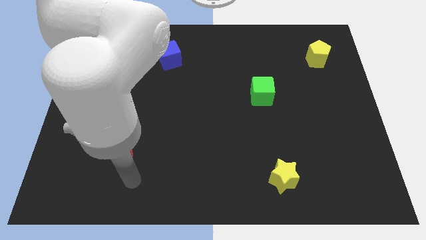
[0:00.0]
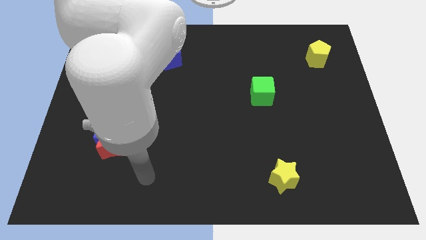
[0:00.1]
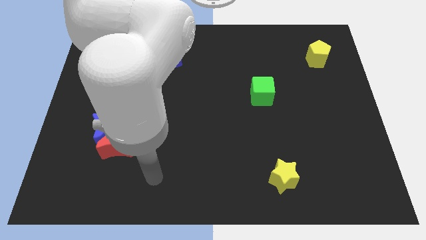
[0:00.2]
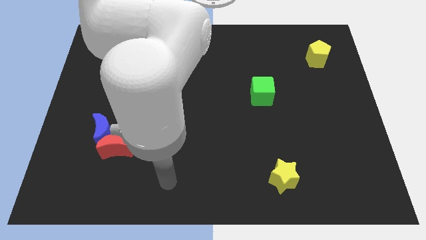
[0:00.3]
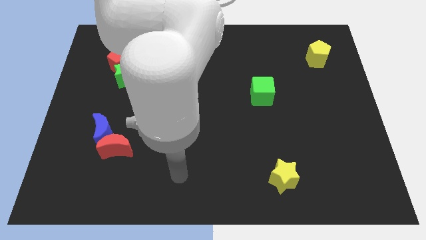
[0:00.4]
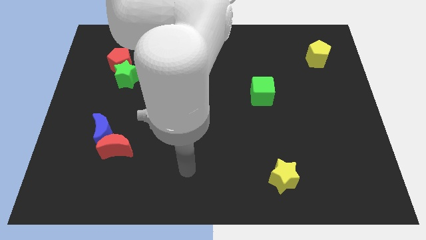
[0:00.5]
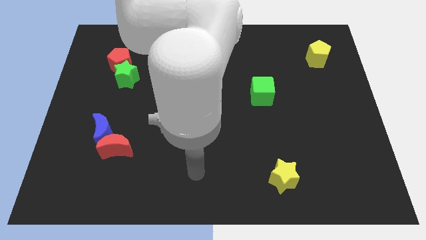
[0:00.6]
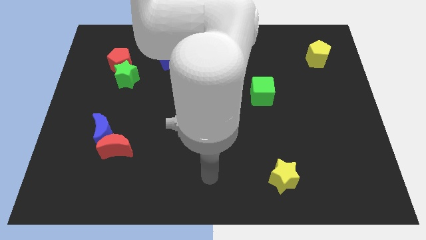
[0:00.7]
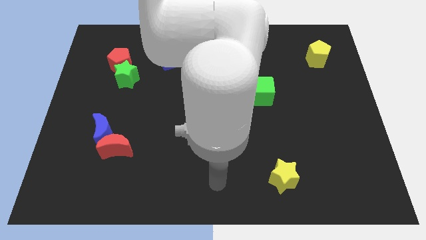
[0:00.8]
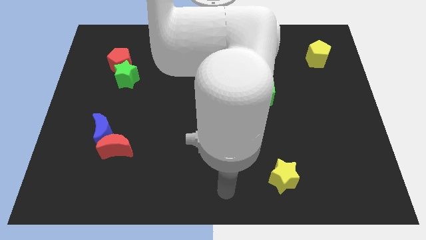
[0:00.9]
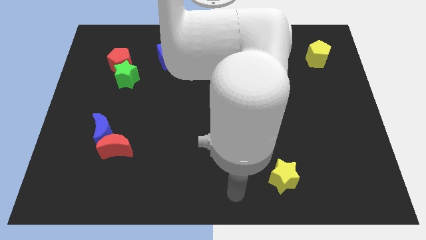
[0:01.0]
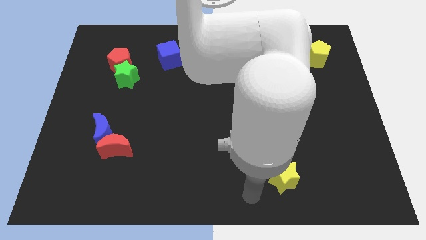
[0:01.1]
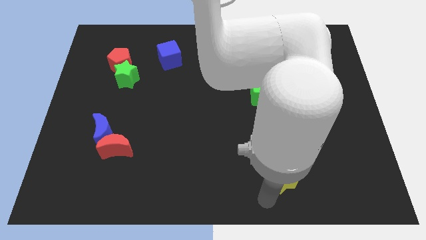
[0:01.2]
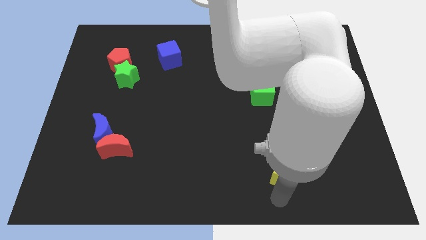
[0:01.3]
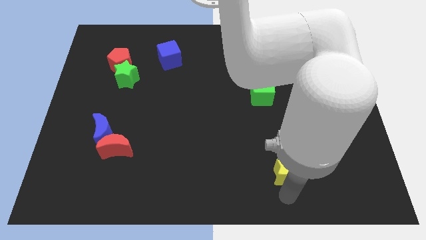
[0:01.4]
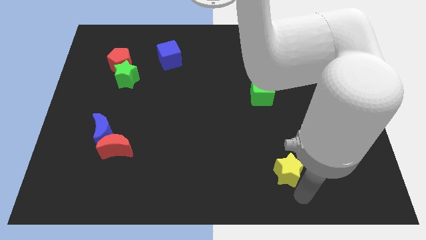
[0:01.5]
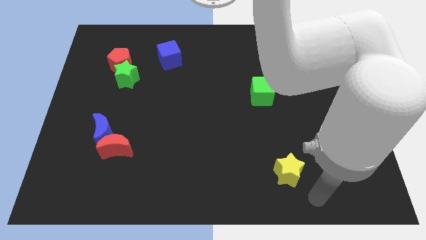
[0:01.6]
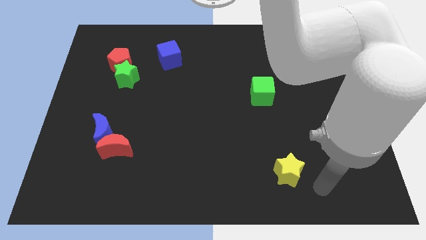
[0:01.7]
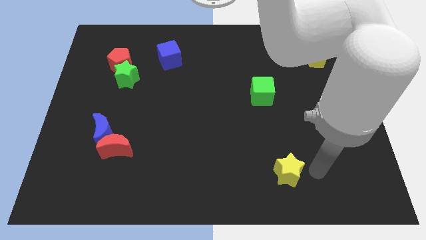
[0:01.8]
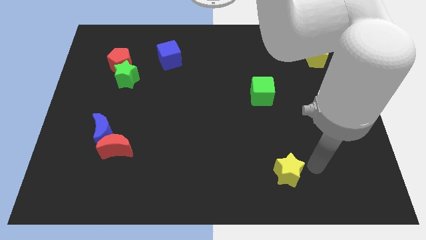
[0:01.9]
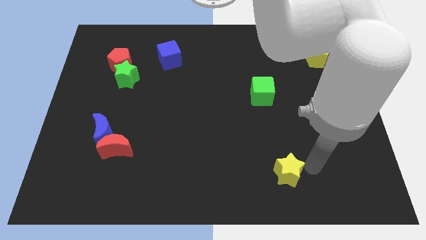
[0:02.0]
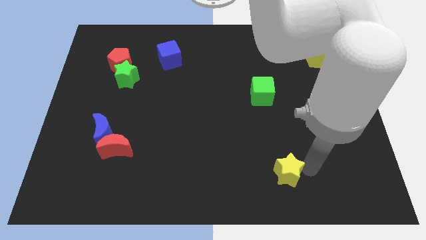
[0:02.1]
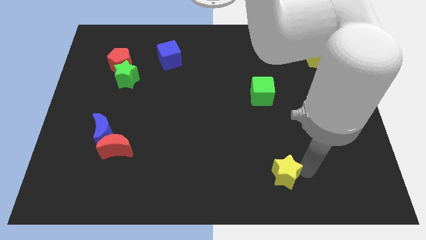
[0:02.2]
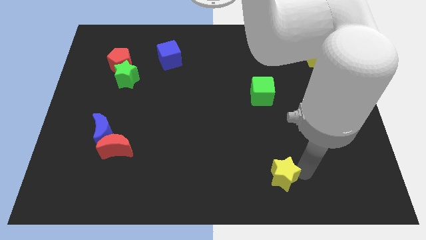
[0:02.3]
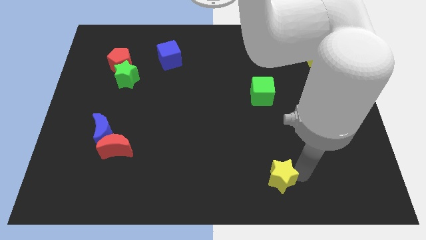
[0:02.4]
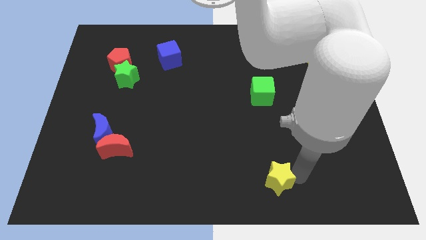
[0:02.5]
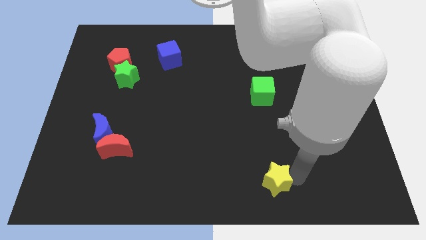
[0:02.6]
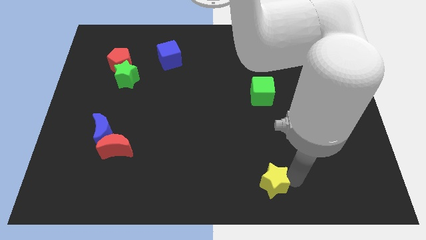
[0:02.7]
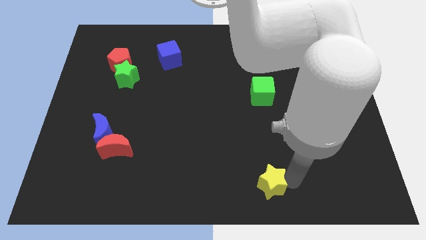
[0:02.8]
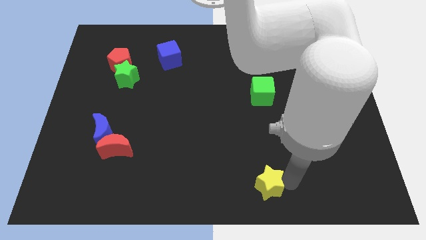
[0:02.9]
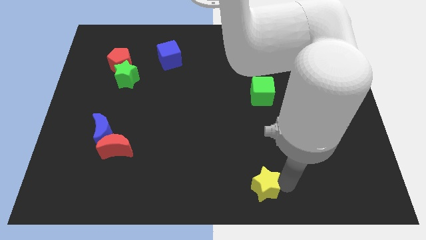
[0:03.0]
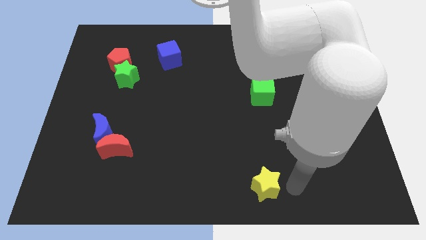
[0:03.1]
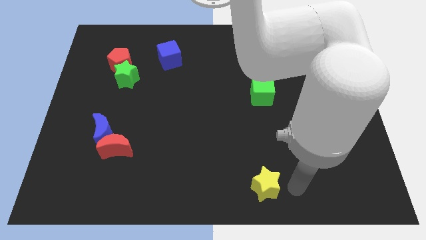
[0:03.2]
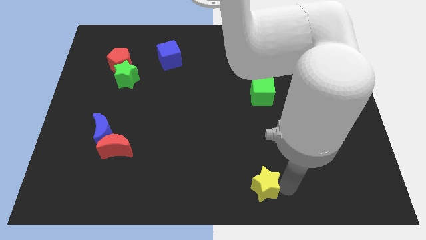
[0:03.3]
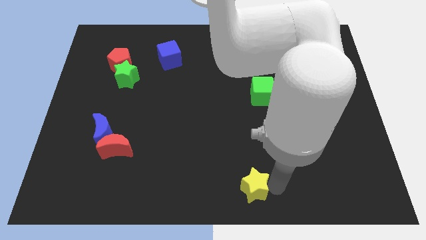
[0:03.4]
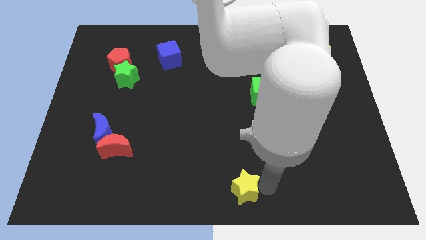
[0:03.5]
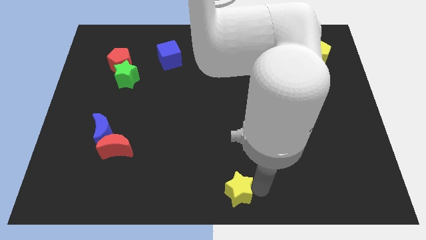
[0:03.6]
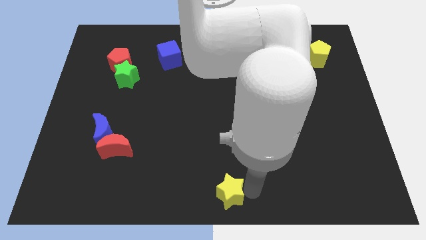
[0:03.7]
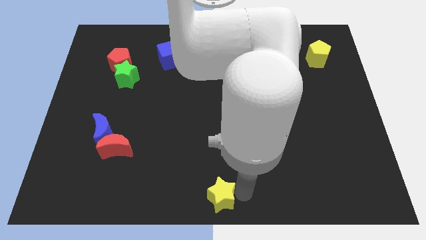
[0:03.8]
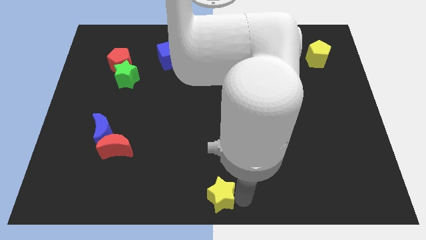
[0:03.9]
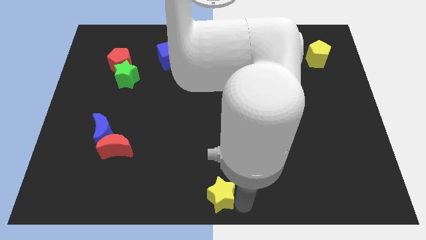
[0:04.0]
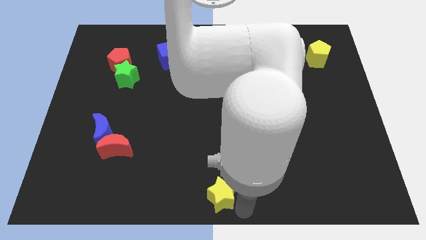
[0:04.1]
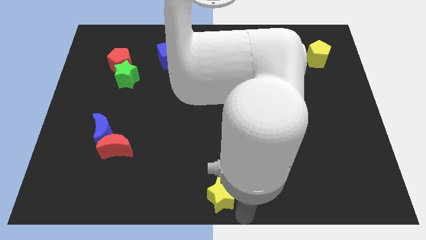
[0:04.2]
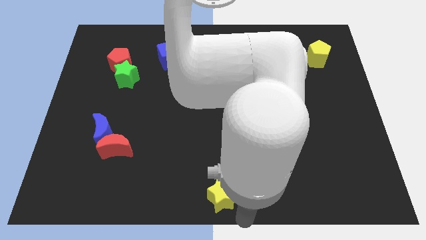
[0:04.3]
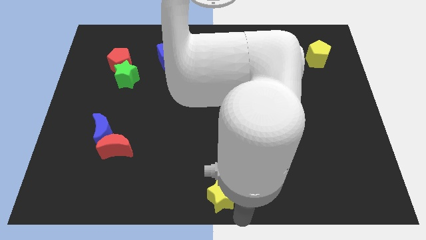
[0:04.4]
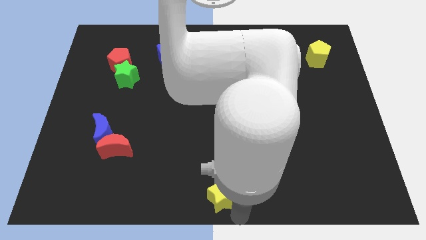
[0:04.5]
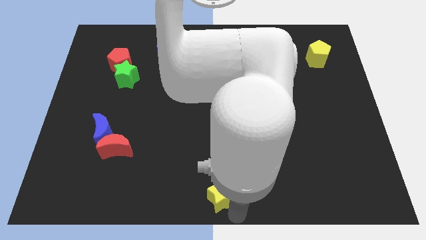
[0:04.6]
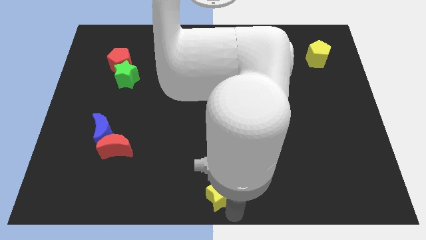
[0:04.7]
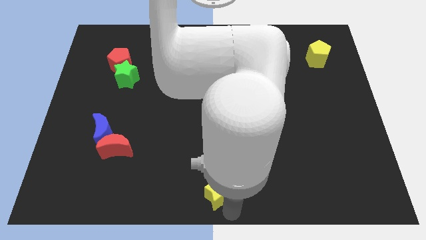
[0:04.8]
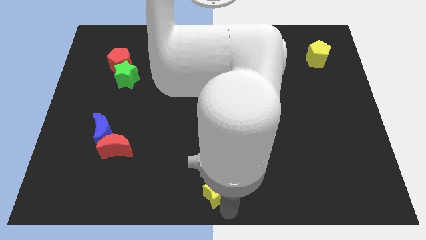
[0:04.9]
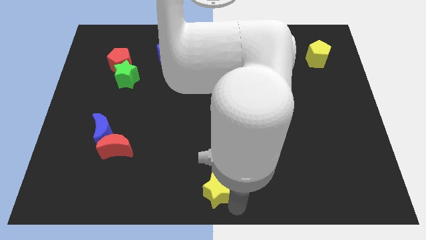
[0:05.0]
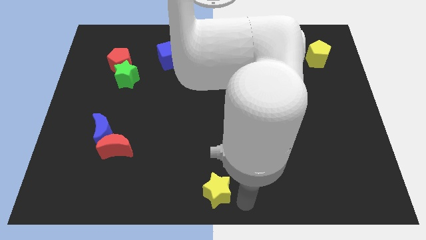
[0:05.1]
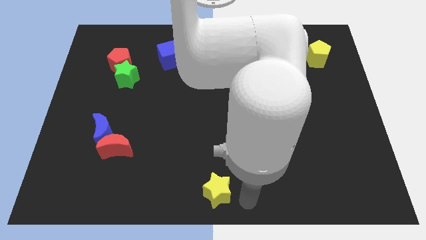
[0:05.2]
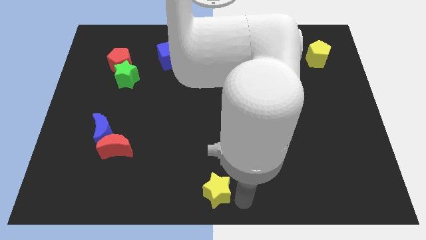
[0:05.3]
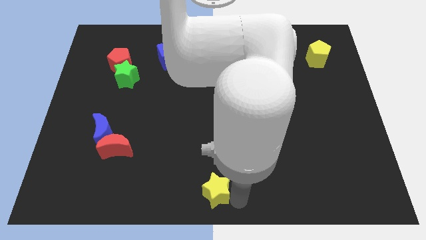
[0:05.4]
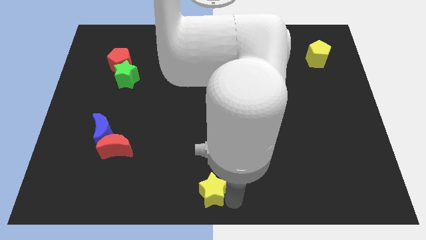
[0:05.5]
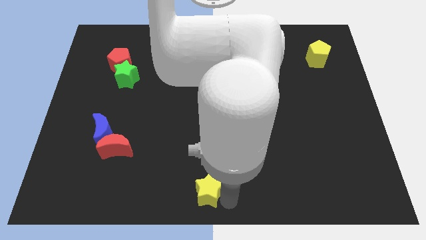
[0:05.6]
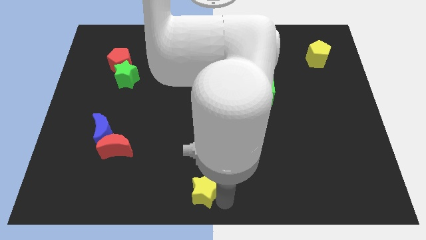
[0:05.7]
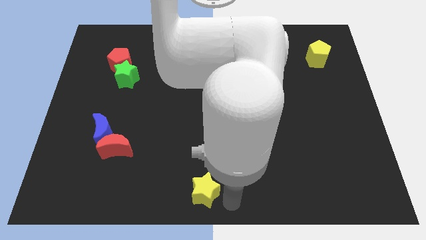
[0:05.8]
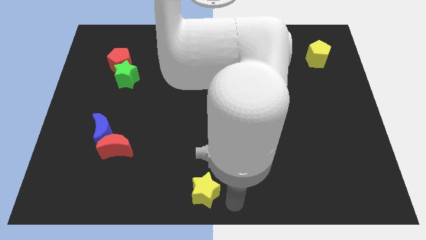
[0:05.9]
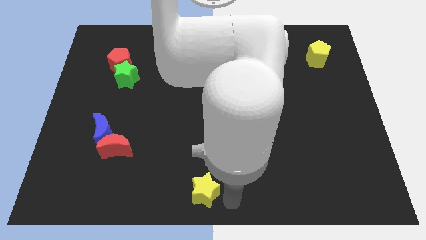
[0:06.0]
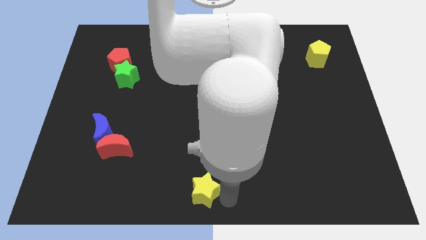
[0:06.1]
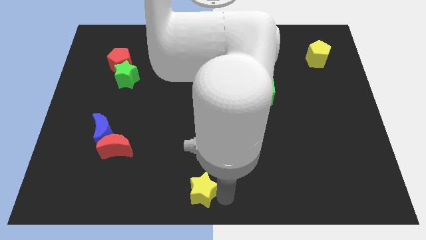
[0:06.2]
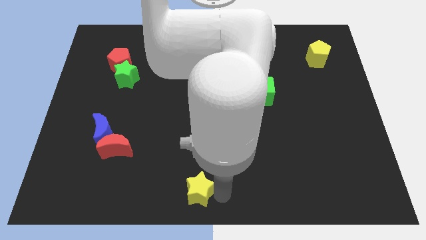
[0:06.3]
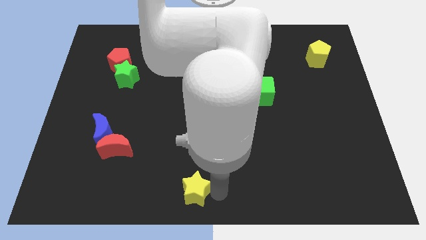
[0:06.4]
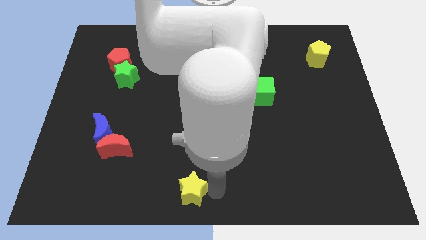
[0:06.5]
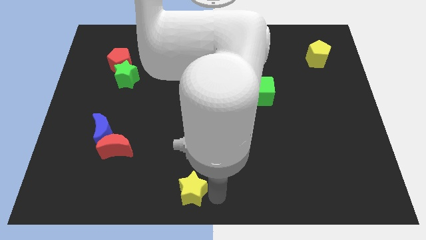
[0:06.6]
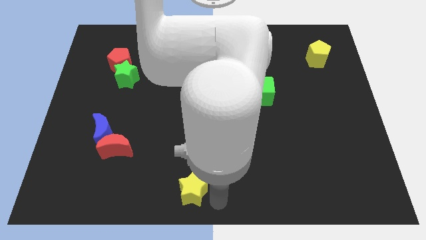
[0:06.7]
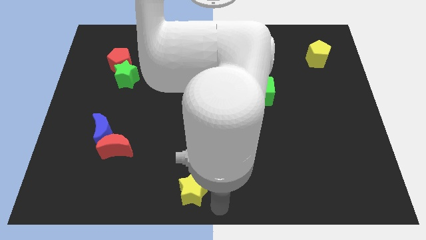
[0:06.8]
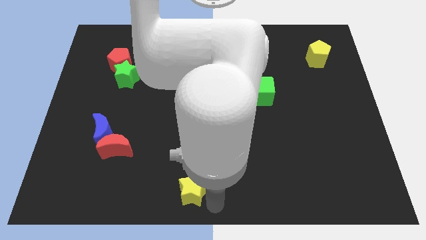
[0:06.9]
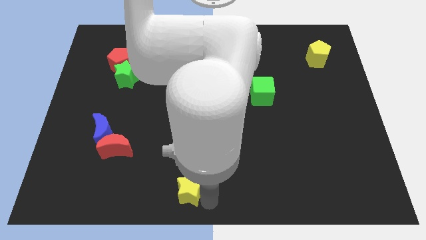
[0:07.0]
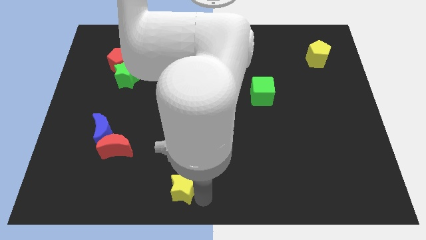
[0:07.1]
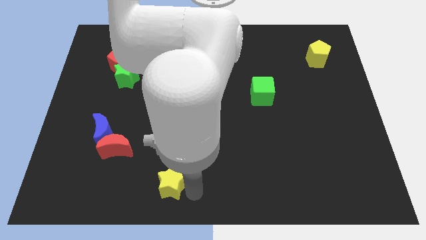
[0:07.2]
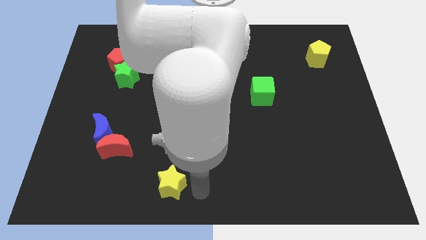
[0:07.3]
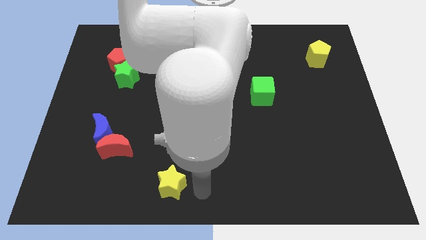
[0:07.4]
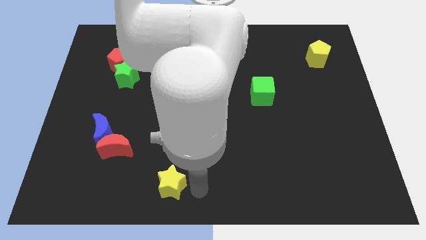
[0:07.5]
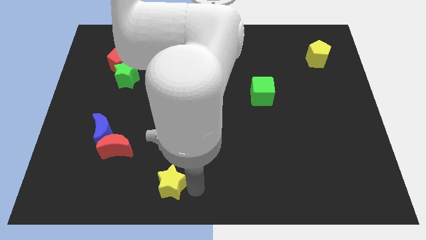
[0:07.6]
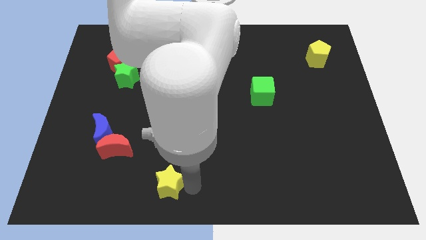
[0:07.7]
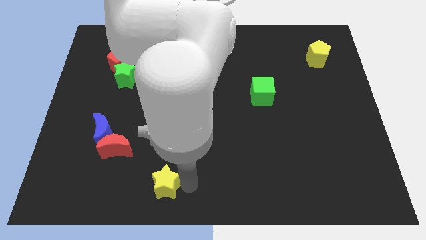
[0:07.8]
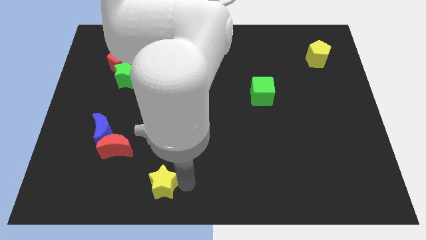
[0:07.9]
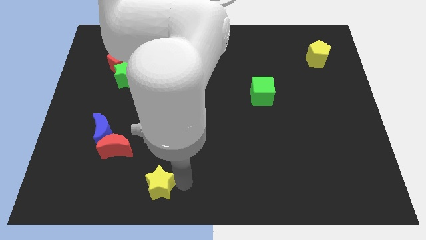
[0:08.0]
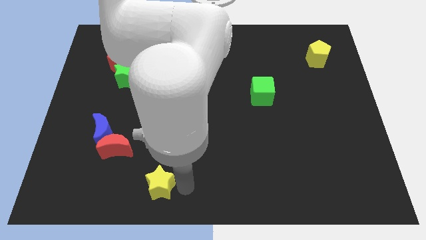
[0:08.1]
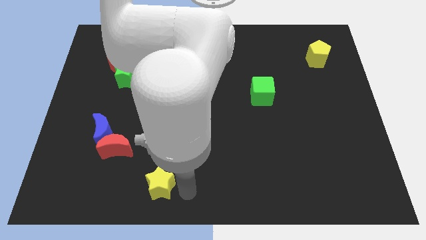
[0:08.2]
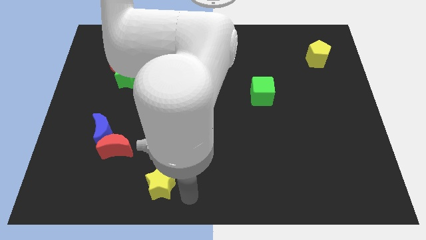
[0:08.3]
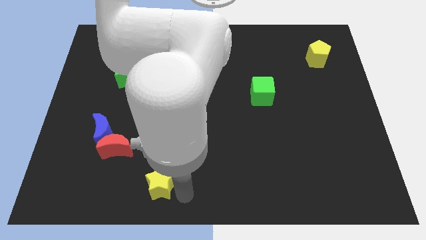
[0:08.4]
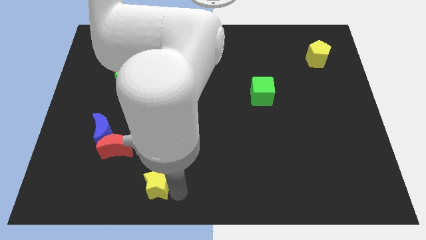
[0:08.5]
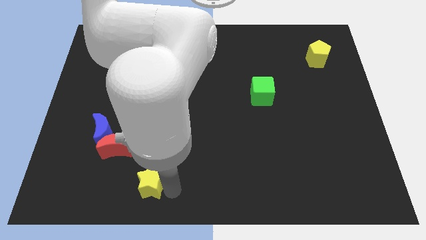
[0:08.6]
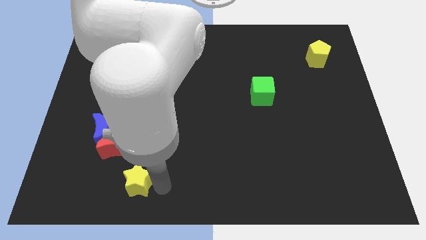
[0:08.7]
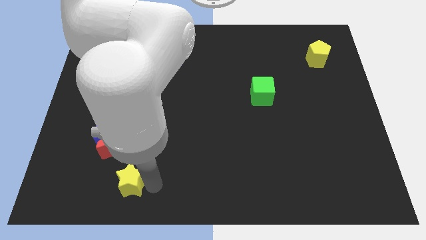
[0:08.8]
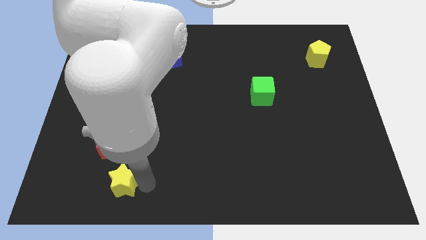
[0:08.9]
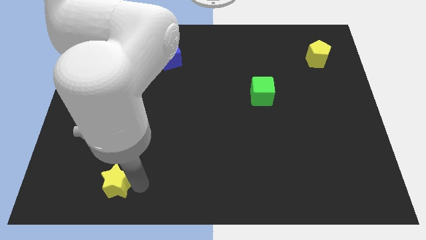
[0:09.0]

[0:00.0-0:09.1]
slide the yellow star below the blue moon
